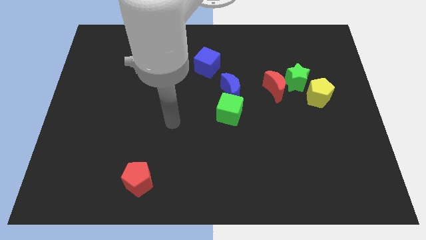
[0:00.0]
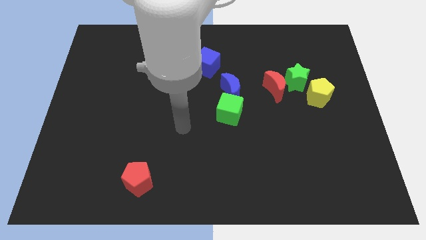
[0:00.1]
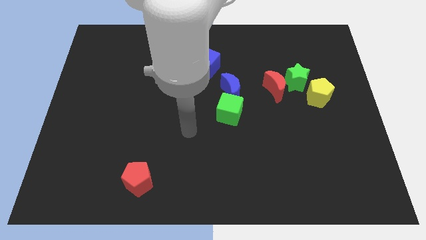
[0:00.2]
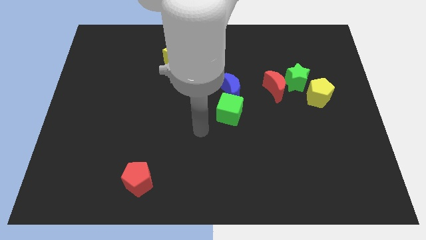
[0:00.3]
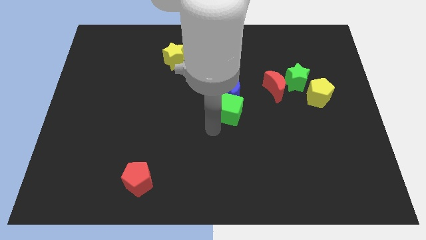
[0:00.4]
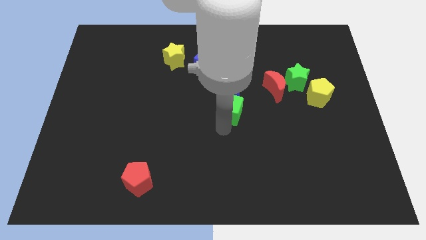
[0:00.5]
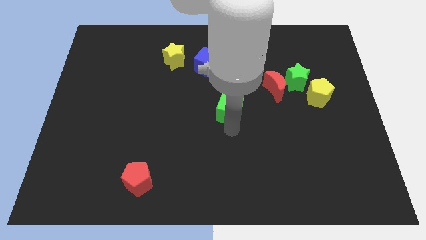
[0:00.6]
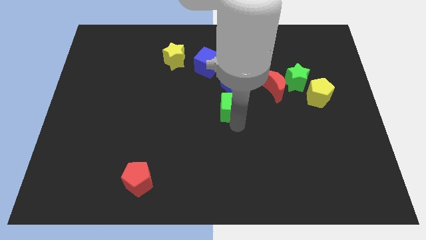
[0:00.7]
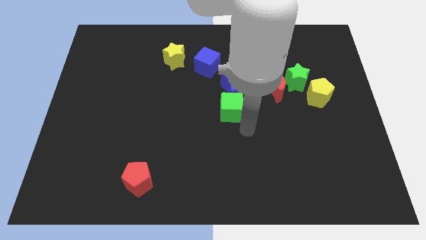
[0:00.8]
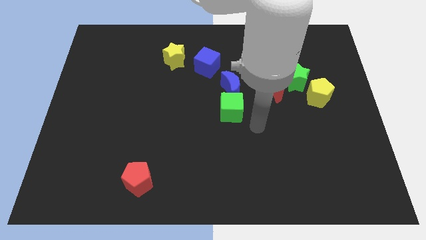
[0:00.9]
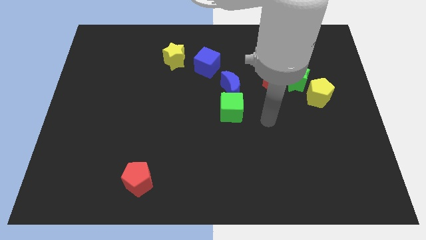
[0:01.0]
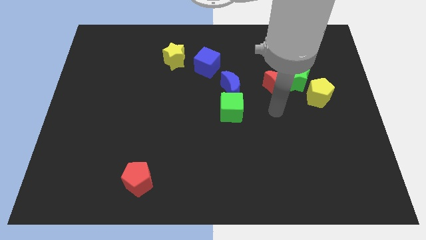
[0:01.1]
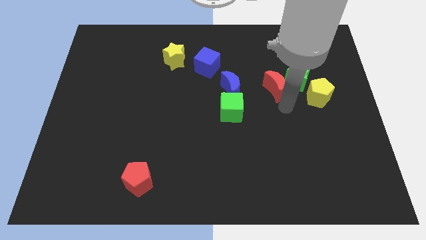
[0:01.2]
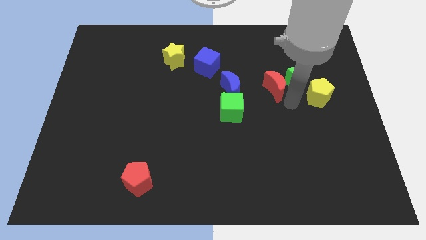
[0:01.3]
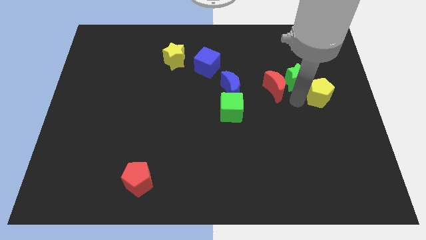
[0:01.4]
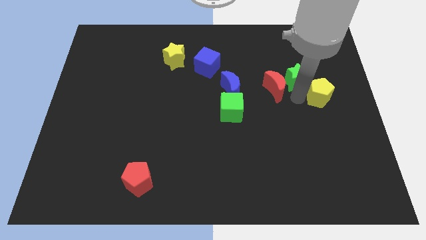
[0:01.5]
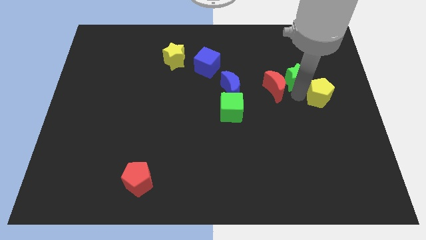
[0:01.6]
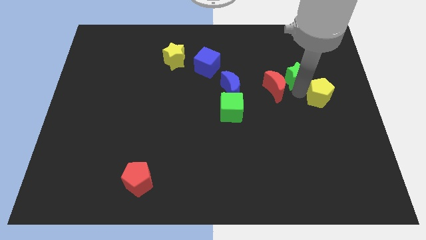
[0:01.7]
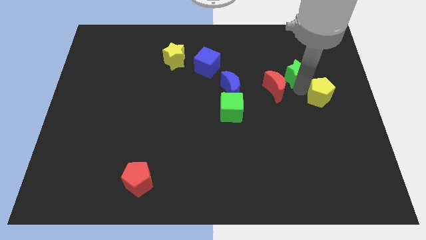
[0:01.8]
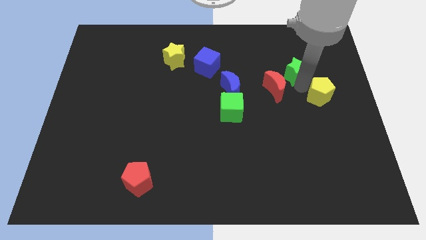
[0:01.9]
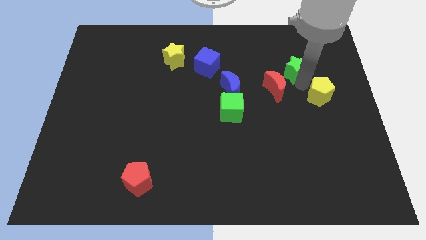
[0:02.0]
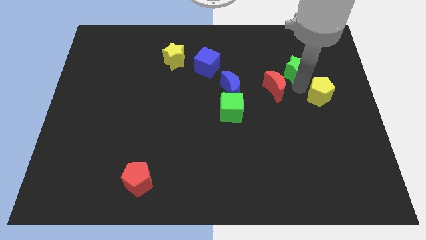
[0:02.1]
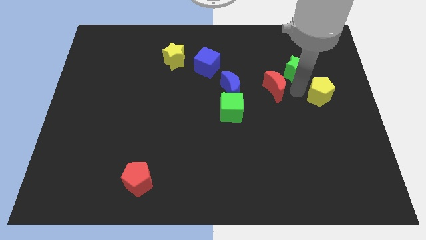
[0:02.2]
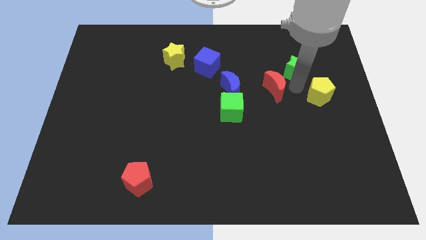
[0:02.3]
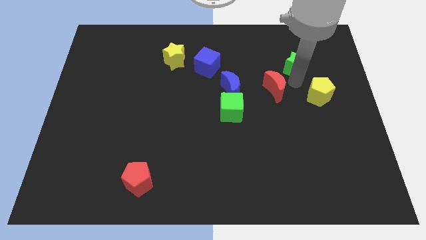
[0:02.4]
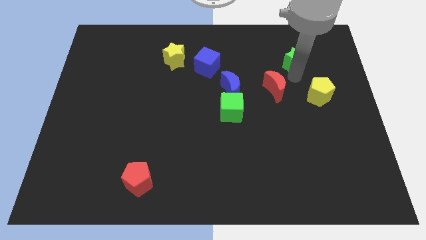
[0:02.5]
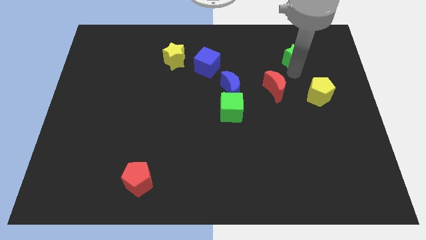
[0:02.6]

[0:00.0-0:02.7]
separate the green star from the red moon and yellow pentagon

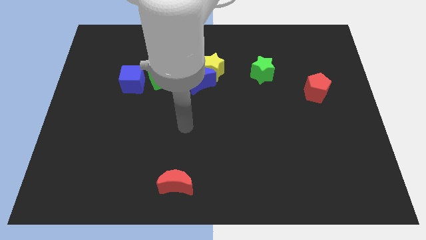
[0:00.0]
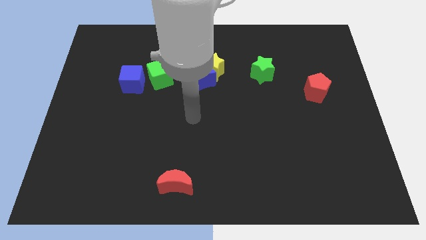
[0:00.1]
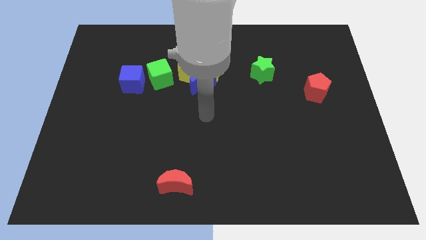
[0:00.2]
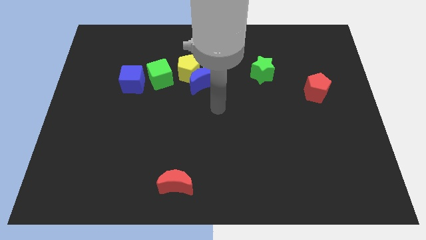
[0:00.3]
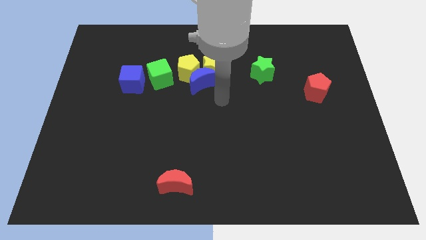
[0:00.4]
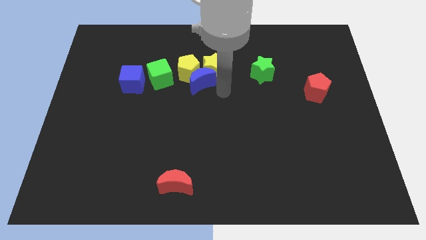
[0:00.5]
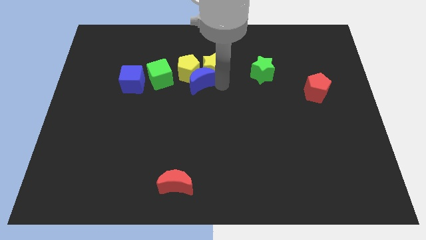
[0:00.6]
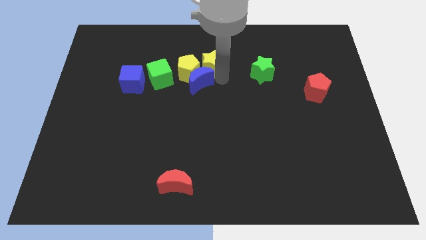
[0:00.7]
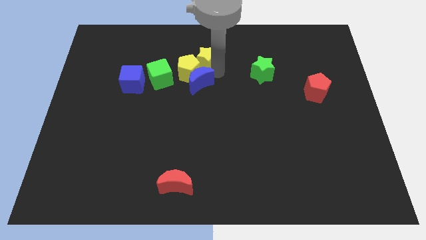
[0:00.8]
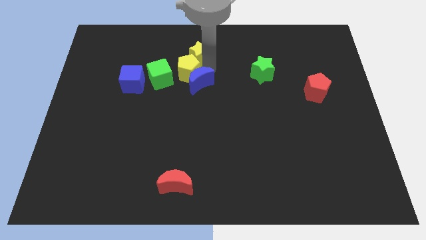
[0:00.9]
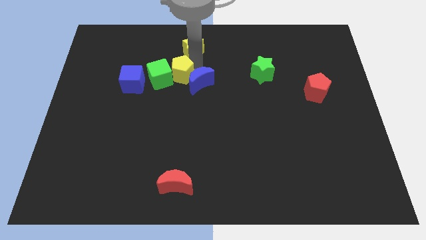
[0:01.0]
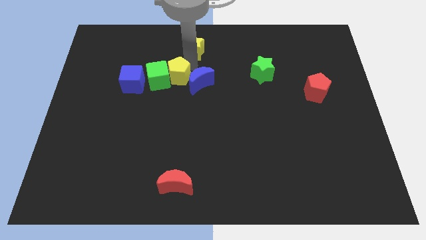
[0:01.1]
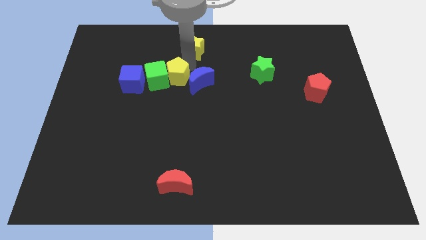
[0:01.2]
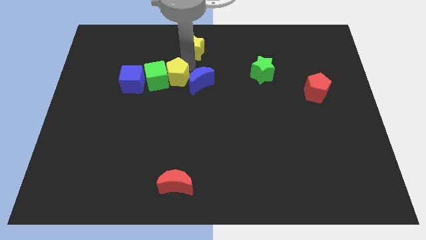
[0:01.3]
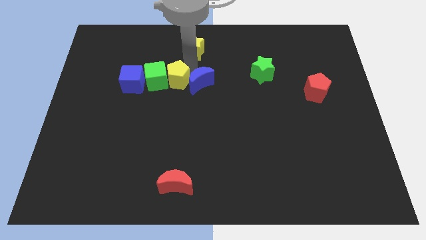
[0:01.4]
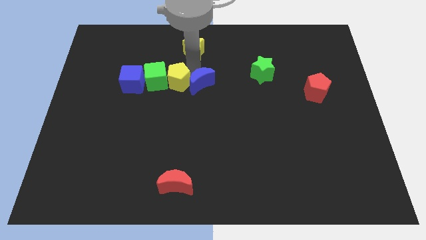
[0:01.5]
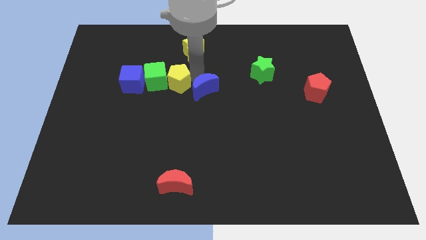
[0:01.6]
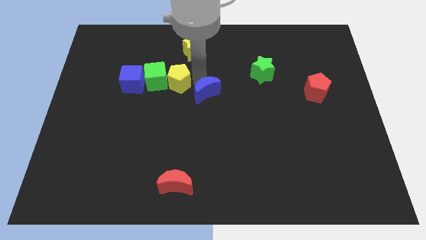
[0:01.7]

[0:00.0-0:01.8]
separate the blue moon from the yellow pentagon and yellow star

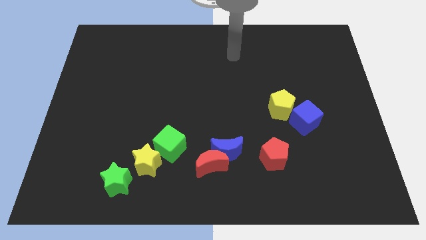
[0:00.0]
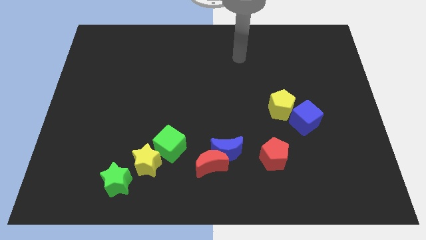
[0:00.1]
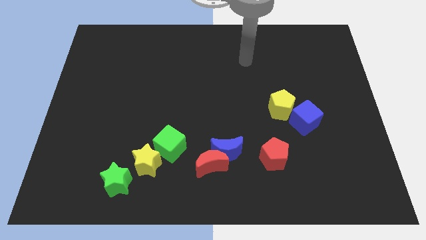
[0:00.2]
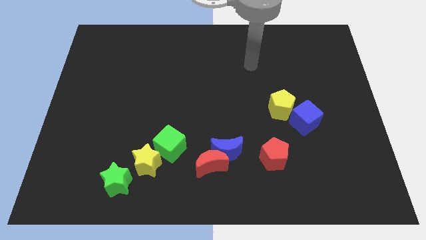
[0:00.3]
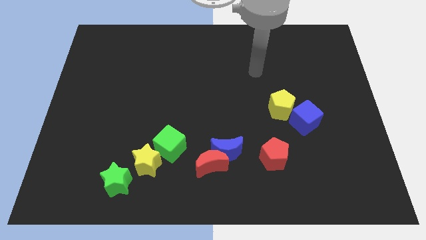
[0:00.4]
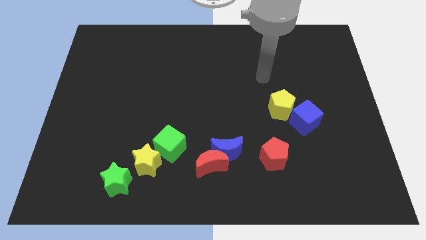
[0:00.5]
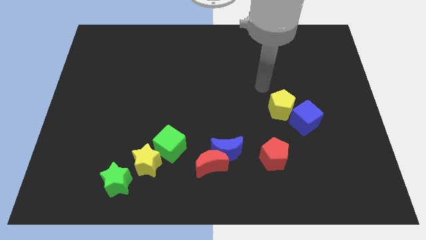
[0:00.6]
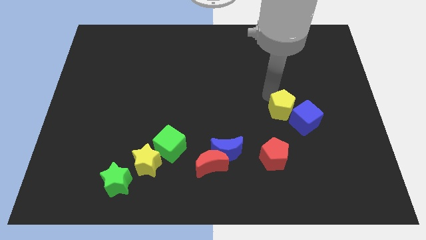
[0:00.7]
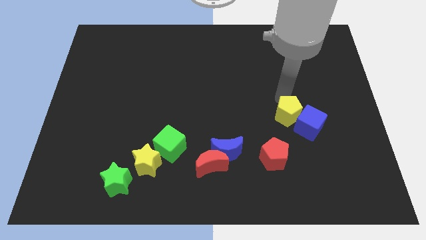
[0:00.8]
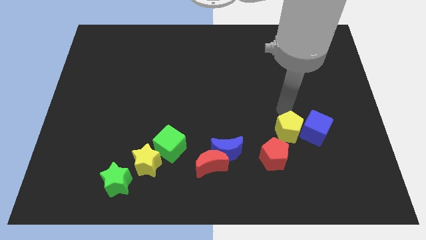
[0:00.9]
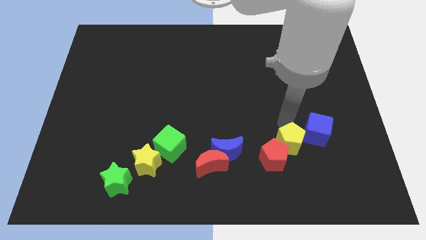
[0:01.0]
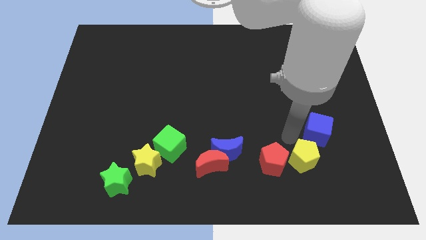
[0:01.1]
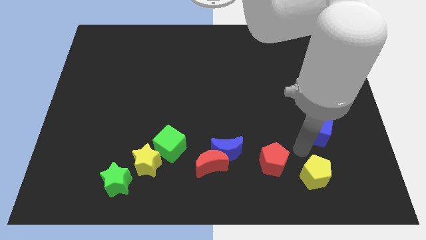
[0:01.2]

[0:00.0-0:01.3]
pull the blue cube apart from the yellow pentagon

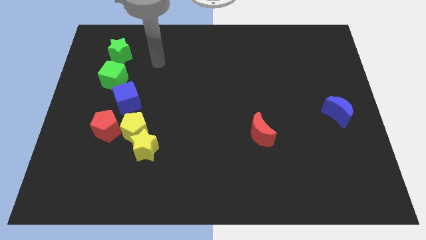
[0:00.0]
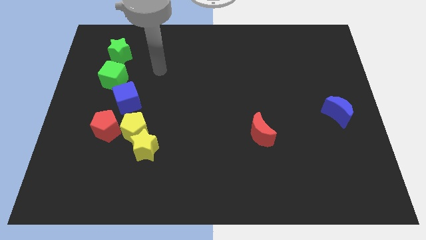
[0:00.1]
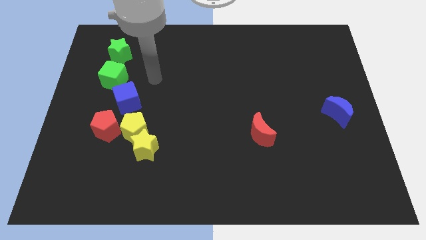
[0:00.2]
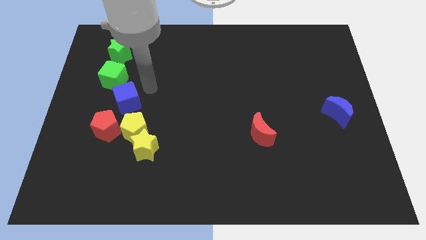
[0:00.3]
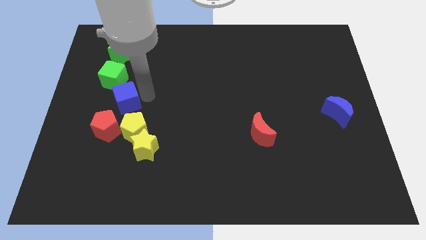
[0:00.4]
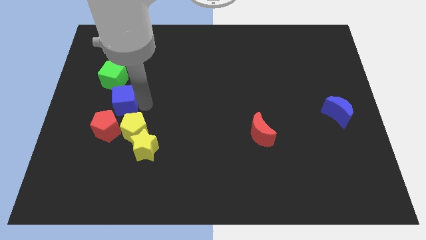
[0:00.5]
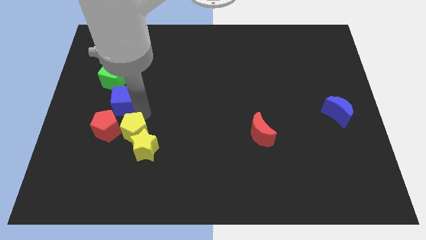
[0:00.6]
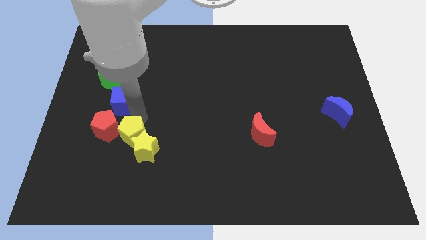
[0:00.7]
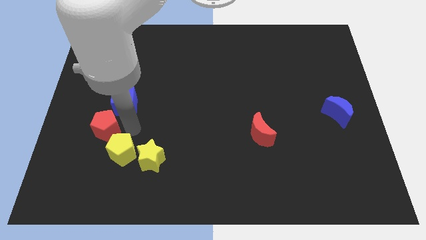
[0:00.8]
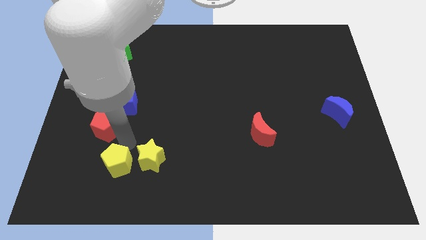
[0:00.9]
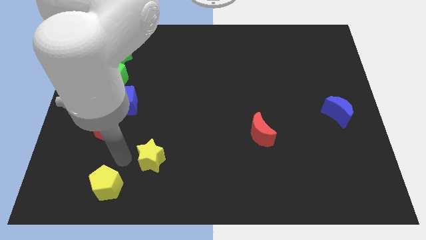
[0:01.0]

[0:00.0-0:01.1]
move the yellow star away from the yellow pentagon

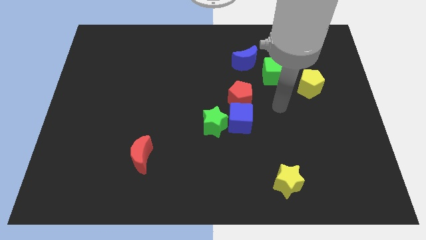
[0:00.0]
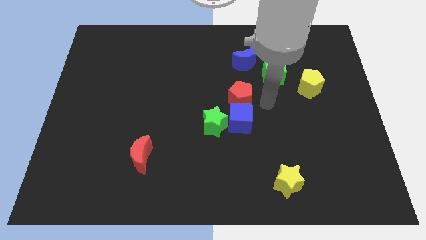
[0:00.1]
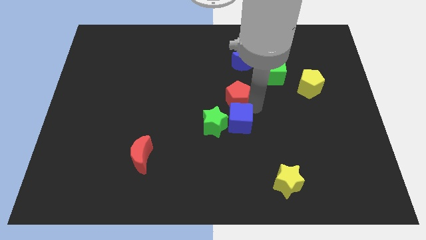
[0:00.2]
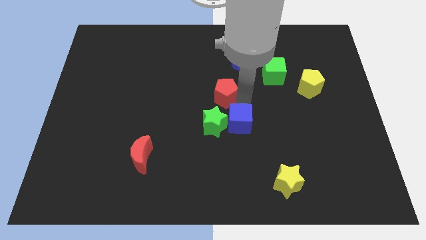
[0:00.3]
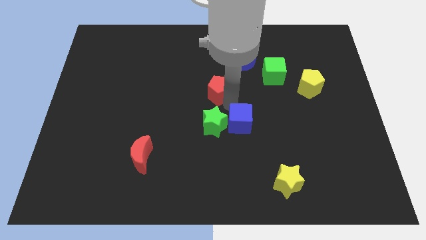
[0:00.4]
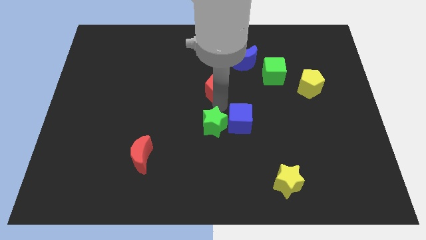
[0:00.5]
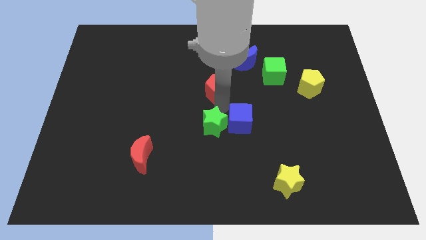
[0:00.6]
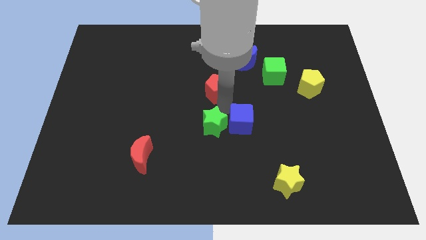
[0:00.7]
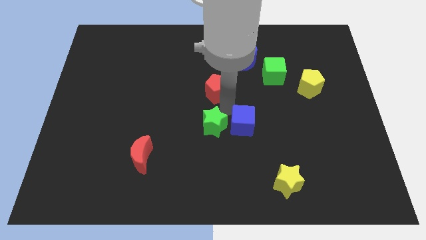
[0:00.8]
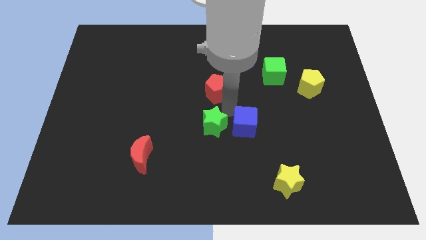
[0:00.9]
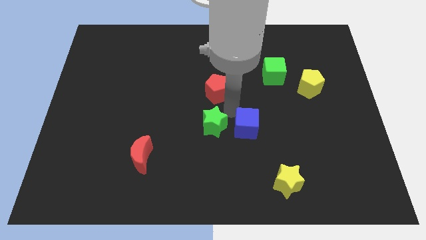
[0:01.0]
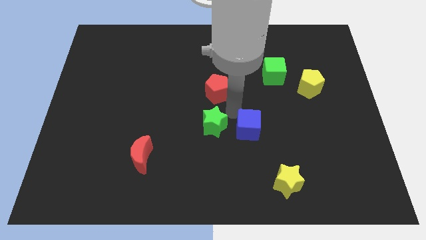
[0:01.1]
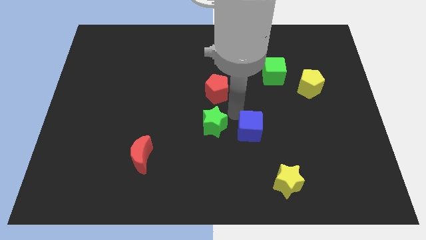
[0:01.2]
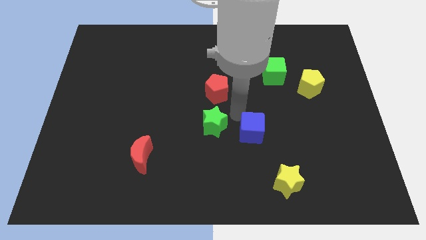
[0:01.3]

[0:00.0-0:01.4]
separate the blue cube from the green star and red pentagon

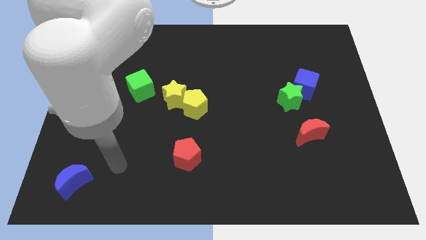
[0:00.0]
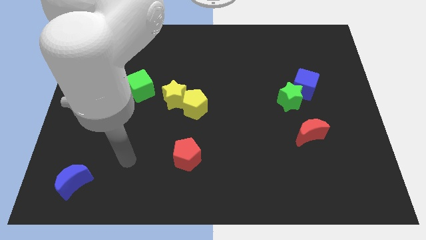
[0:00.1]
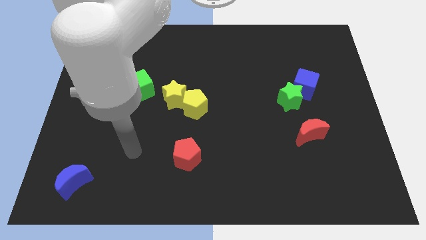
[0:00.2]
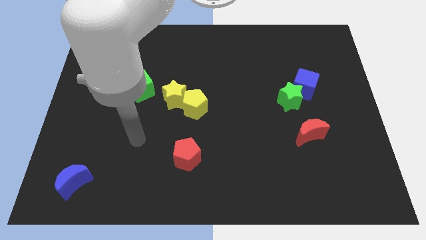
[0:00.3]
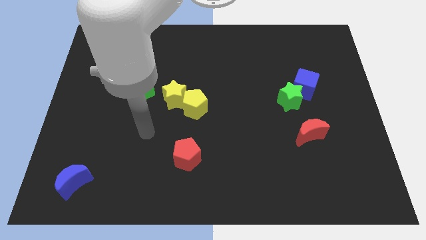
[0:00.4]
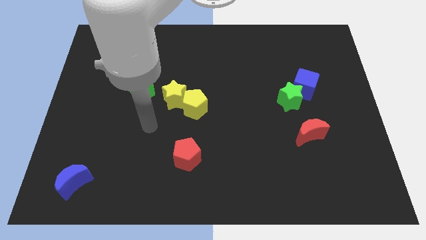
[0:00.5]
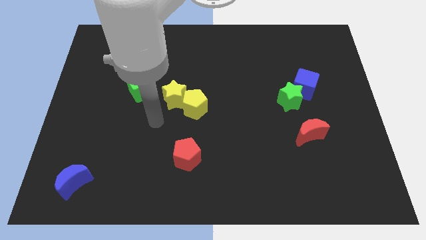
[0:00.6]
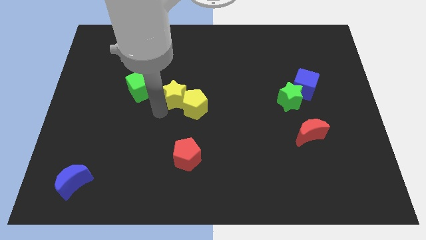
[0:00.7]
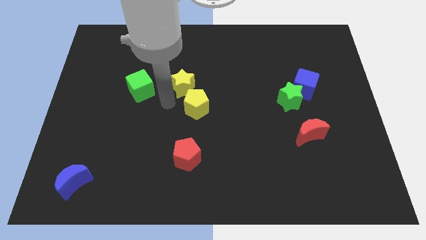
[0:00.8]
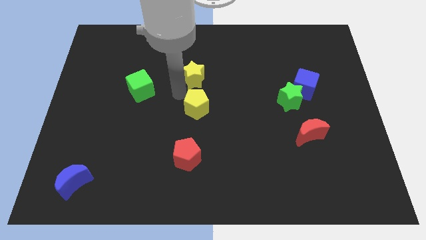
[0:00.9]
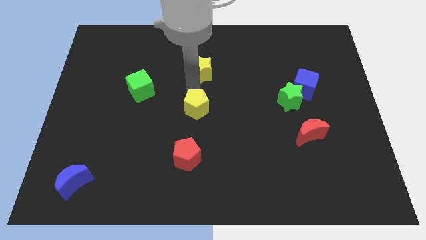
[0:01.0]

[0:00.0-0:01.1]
pull the yellow pentagon apart from the yellow star
